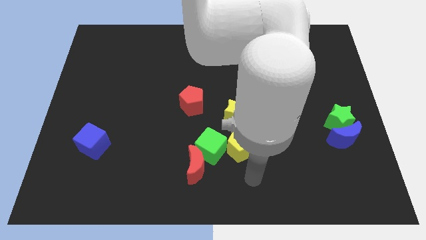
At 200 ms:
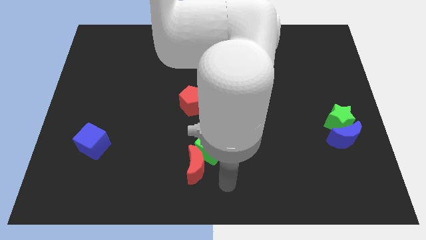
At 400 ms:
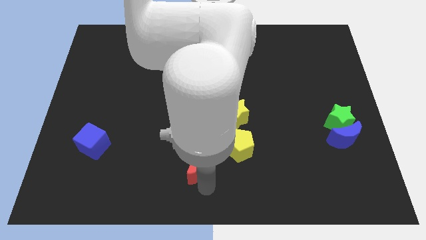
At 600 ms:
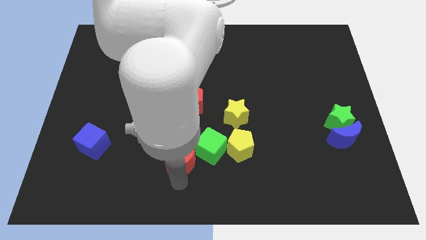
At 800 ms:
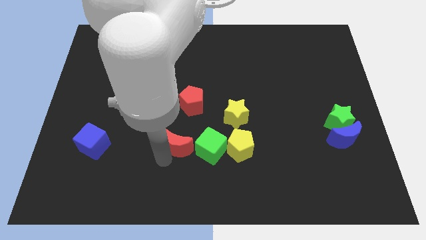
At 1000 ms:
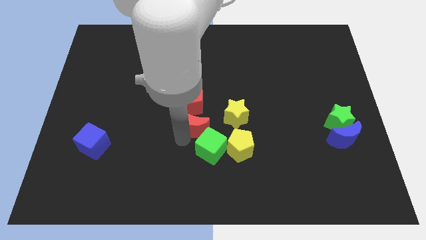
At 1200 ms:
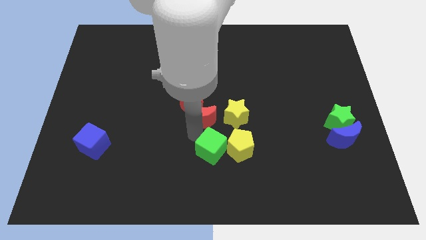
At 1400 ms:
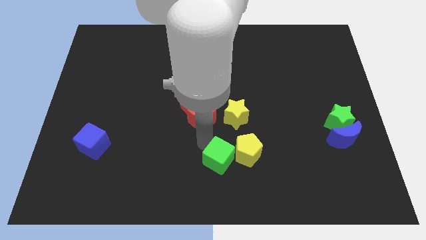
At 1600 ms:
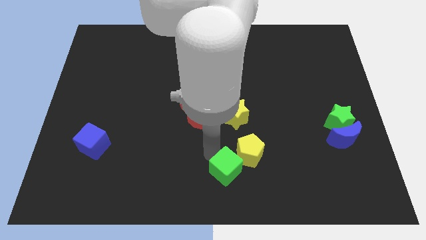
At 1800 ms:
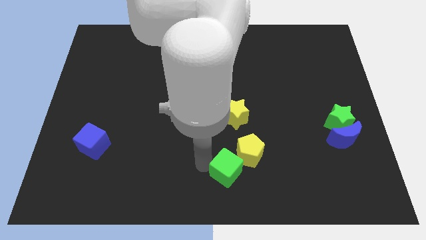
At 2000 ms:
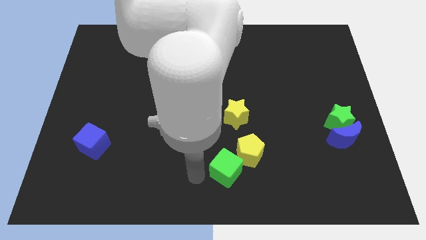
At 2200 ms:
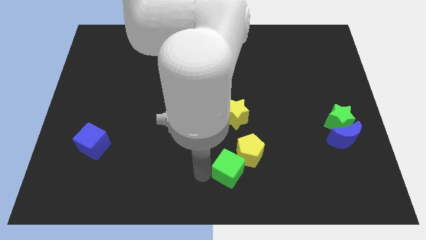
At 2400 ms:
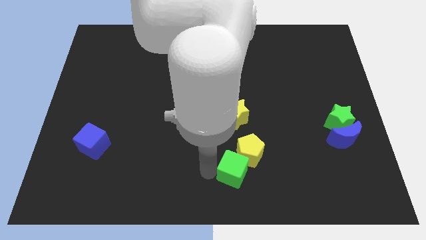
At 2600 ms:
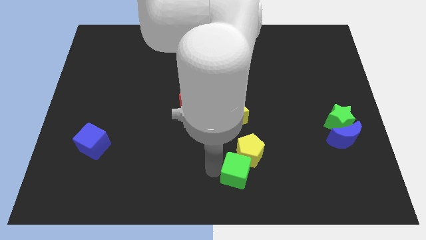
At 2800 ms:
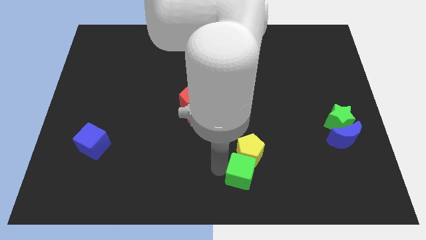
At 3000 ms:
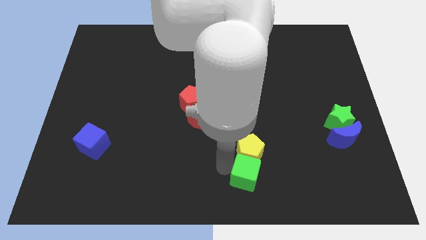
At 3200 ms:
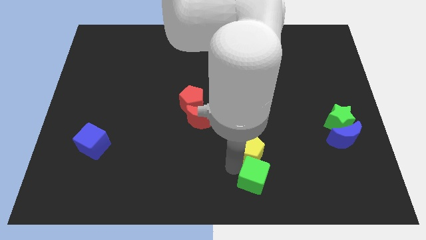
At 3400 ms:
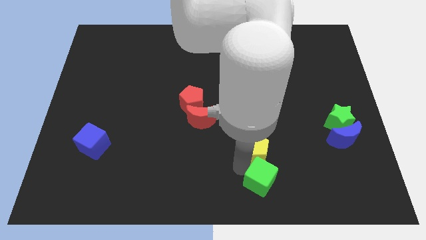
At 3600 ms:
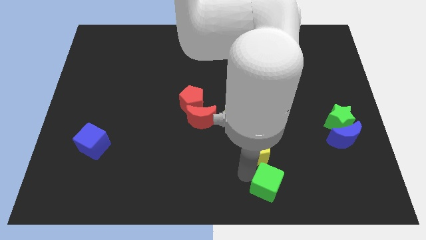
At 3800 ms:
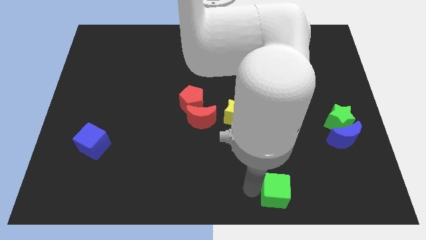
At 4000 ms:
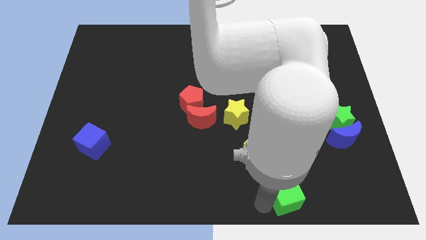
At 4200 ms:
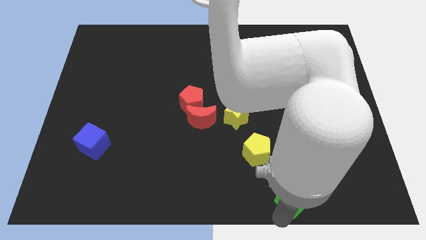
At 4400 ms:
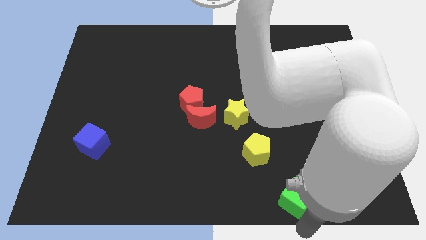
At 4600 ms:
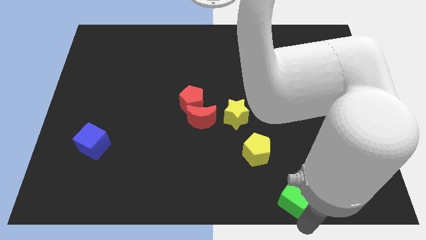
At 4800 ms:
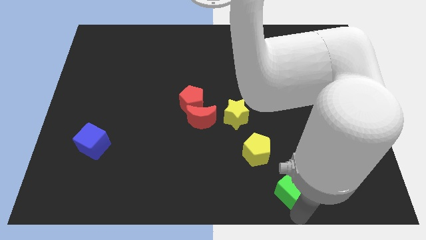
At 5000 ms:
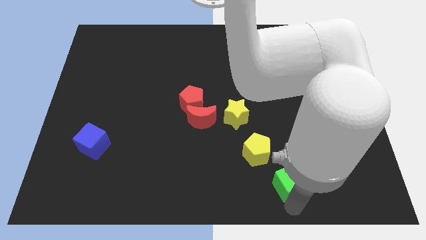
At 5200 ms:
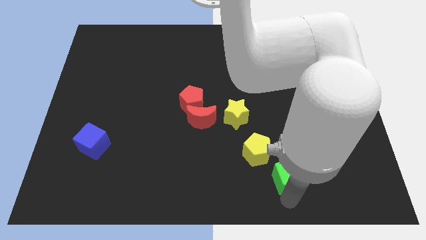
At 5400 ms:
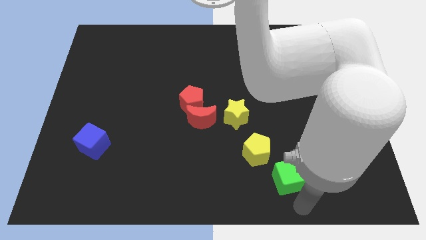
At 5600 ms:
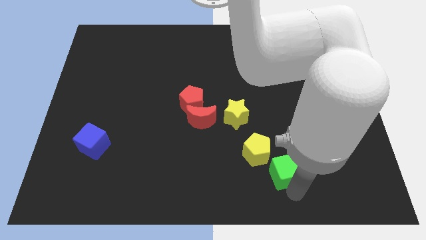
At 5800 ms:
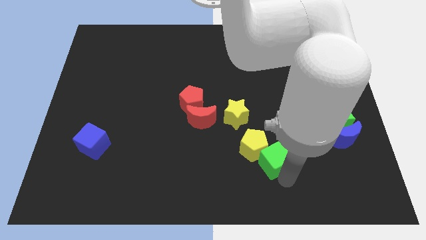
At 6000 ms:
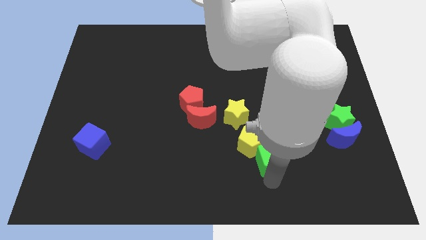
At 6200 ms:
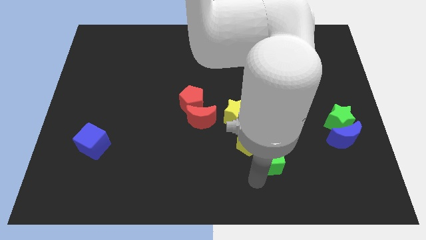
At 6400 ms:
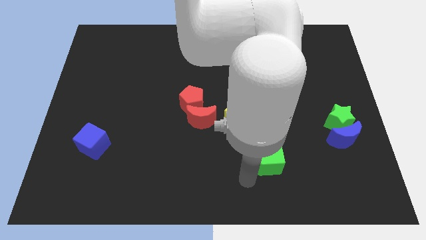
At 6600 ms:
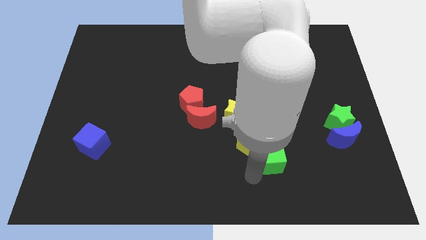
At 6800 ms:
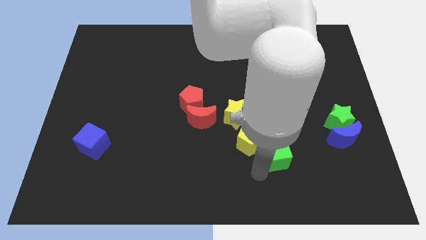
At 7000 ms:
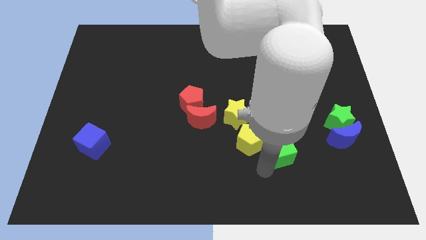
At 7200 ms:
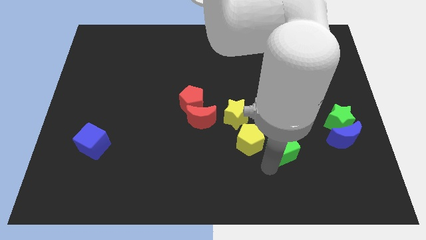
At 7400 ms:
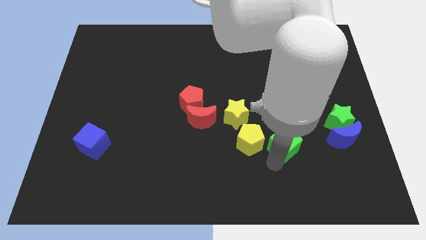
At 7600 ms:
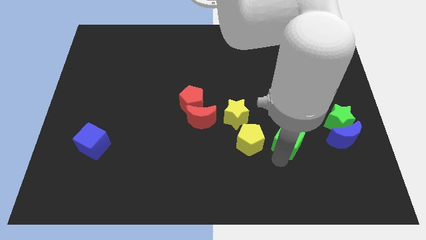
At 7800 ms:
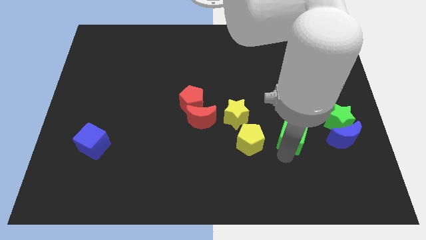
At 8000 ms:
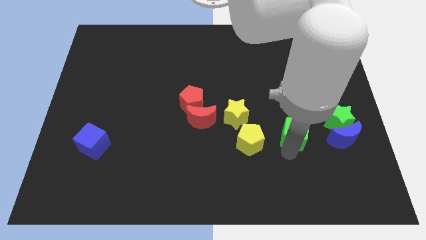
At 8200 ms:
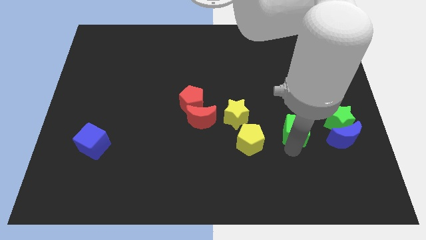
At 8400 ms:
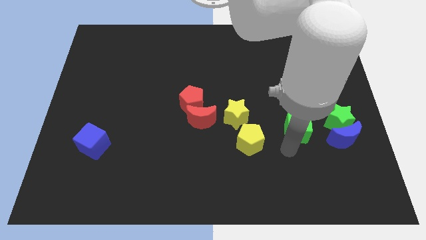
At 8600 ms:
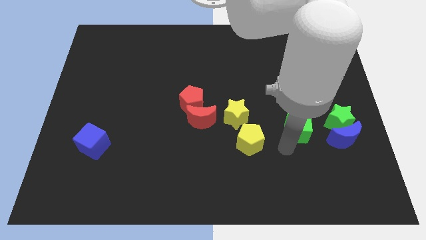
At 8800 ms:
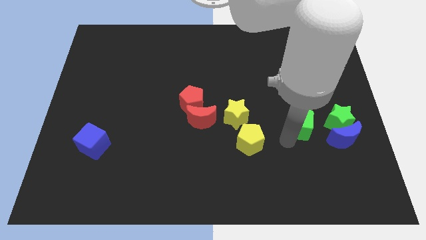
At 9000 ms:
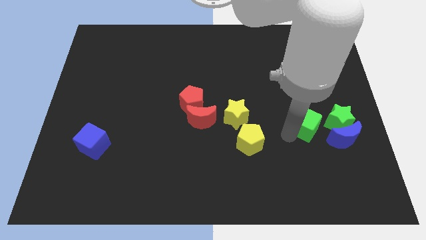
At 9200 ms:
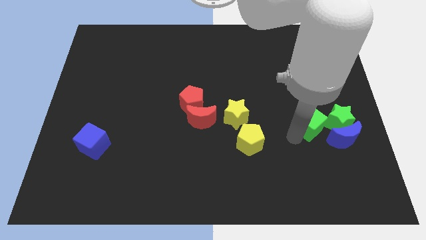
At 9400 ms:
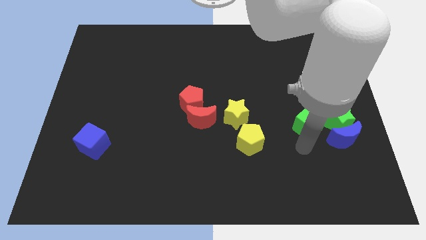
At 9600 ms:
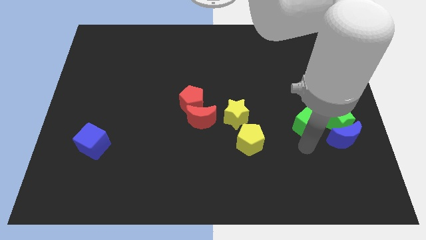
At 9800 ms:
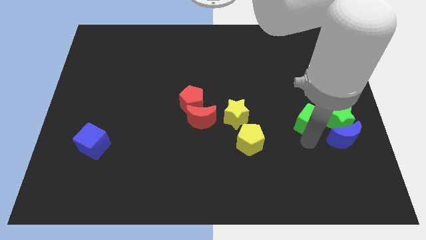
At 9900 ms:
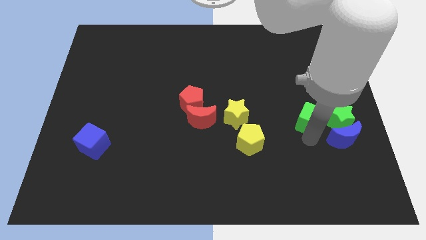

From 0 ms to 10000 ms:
slide the green cube to the top left of the green star
